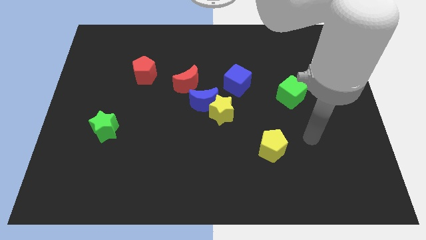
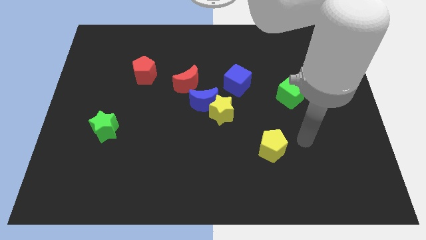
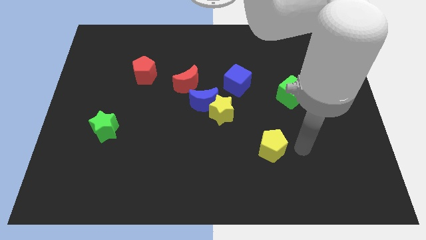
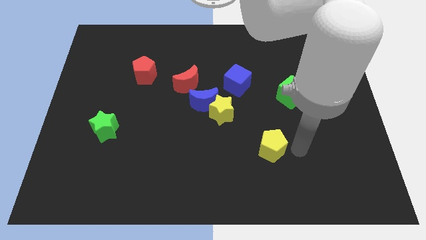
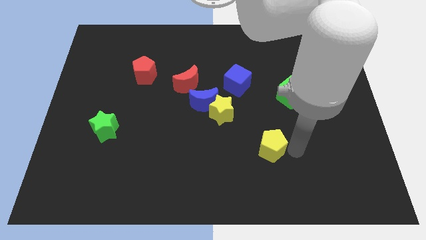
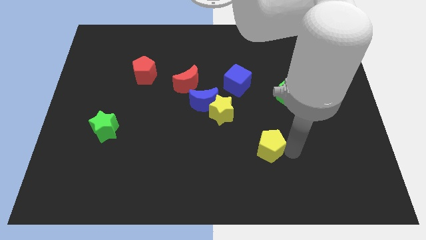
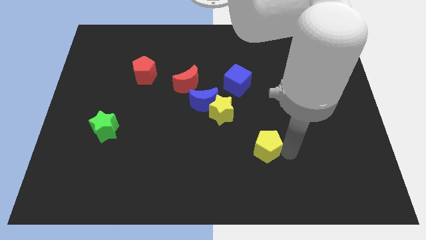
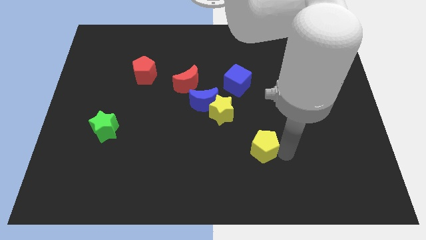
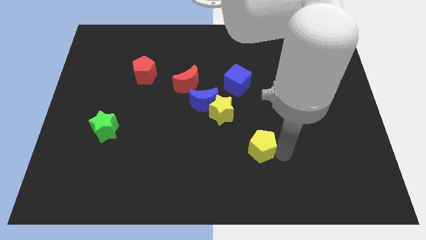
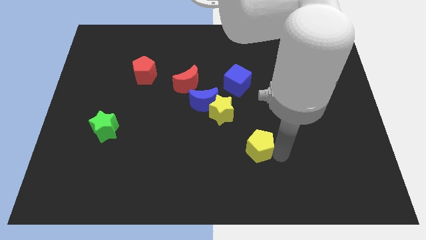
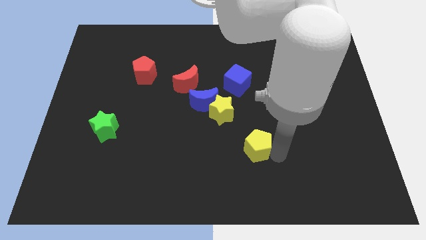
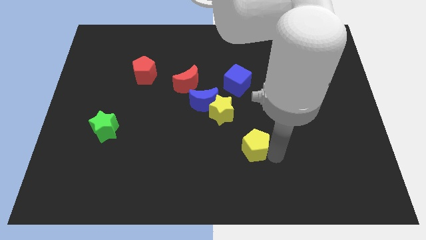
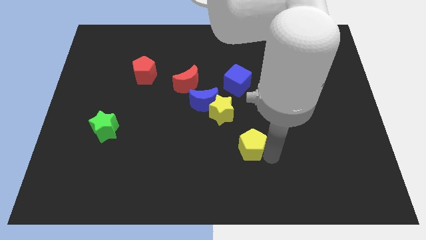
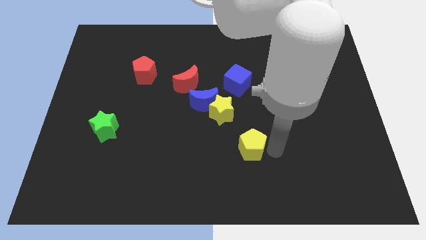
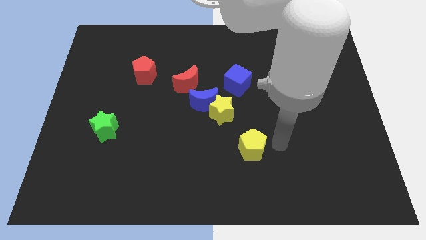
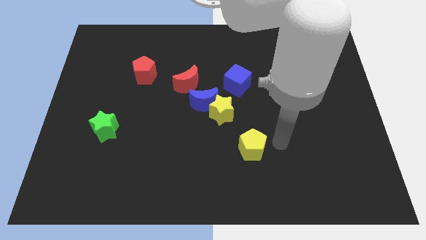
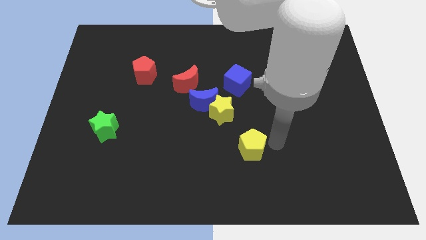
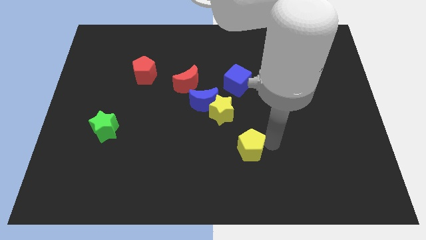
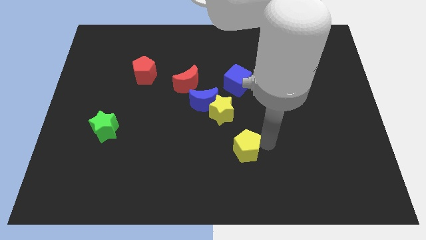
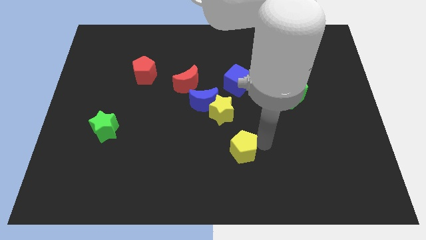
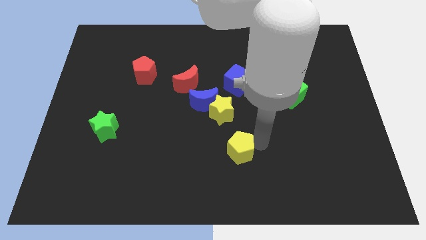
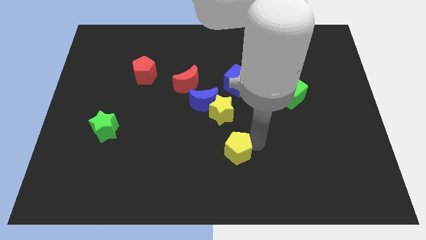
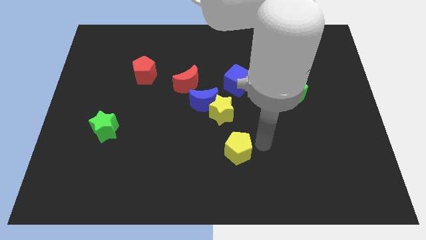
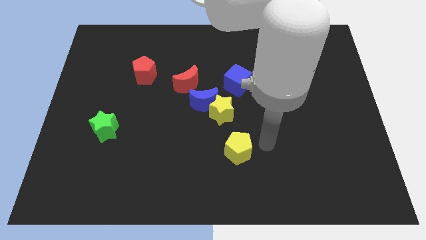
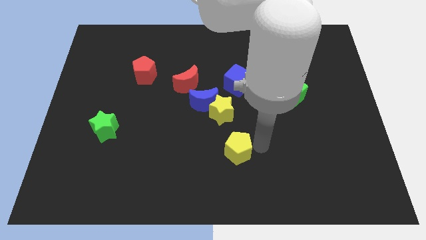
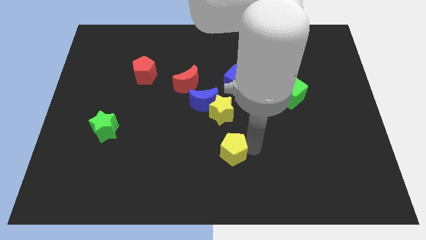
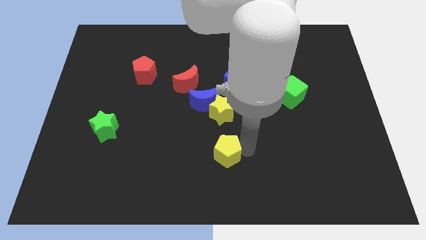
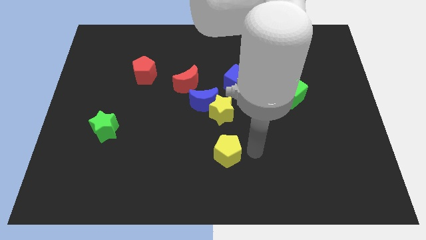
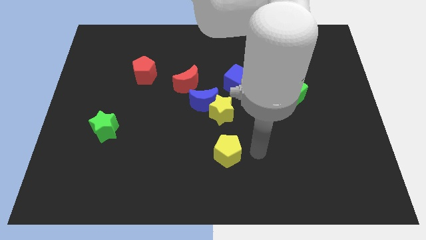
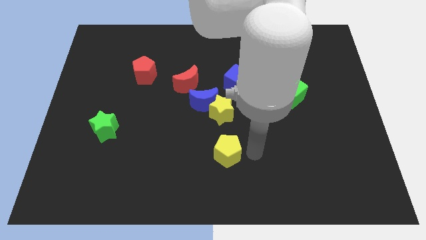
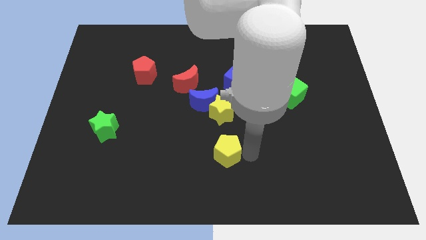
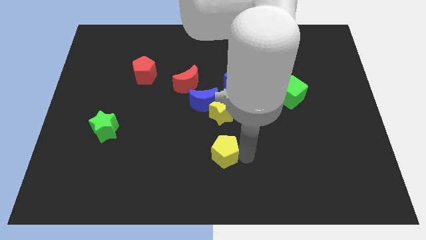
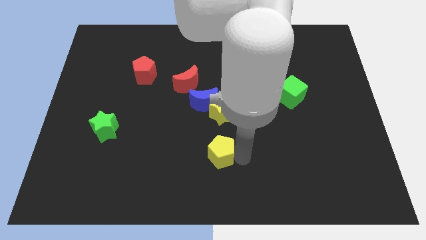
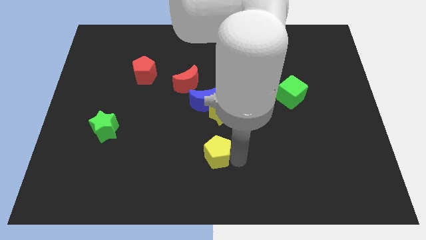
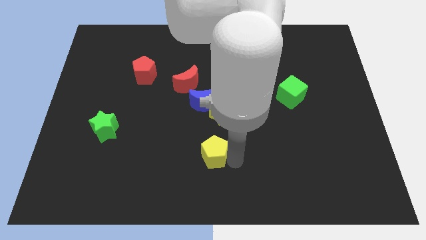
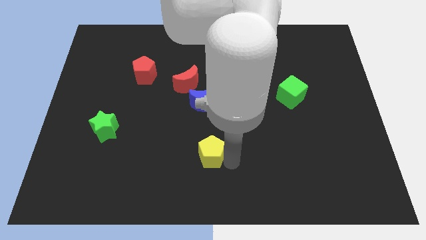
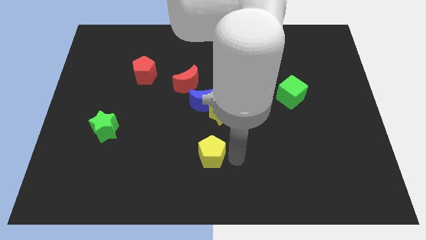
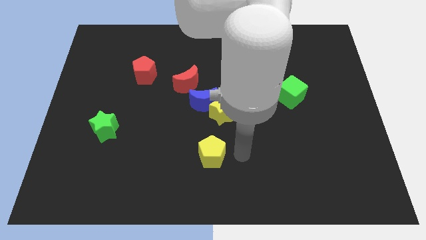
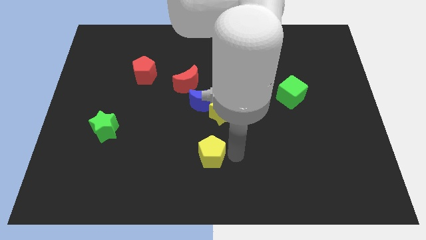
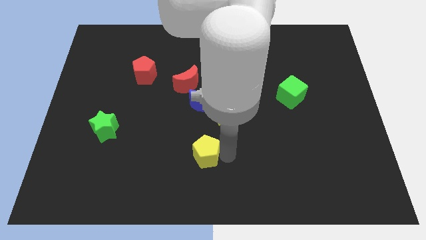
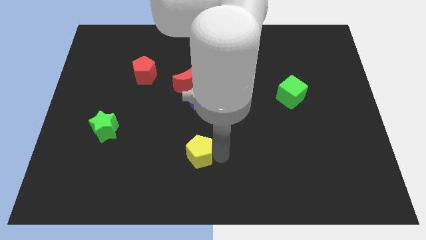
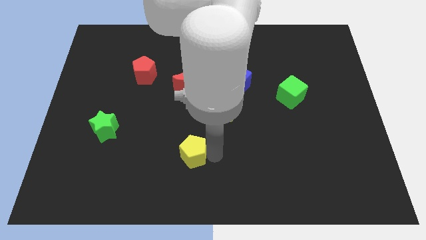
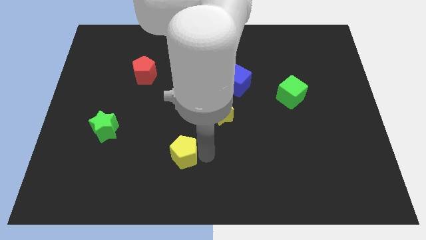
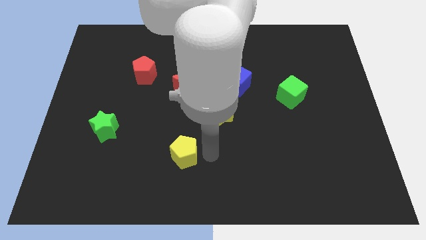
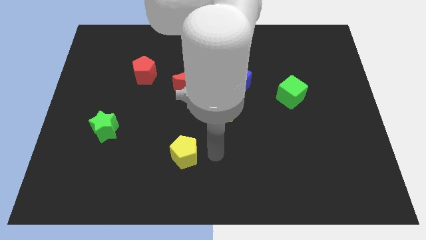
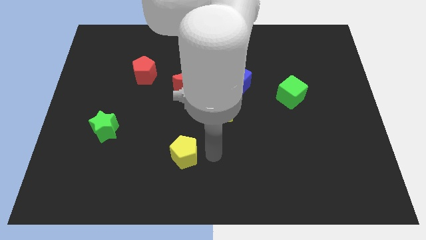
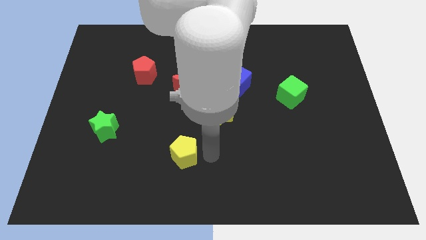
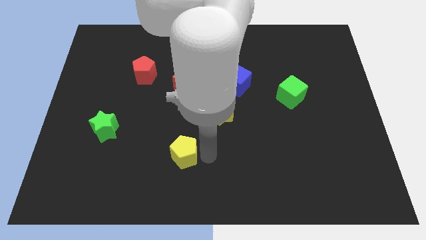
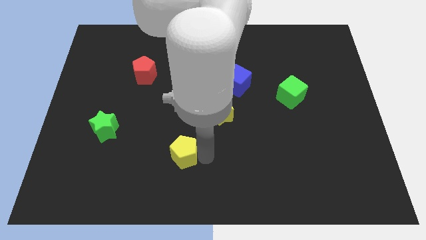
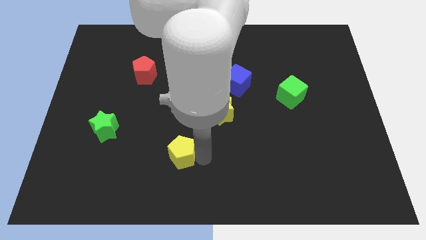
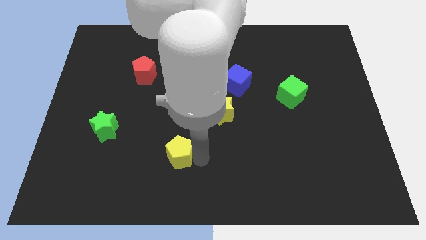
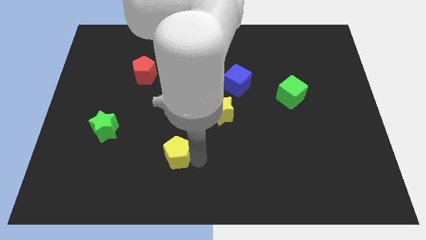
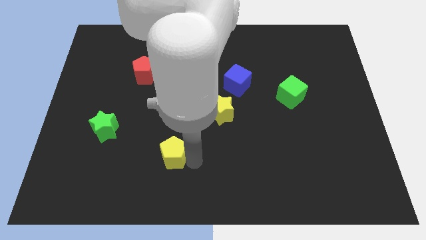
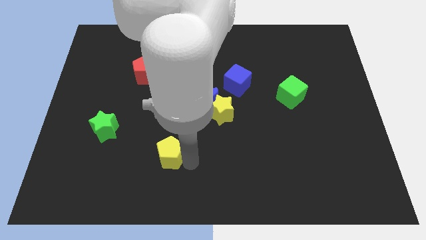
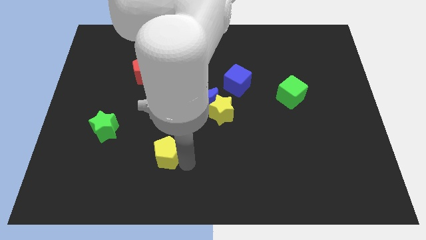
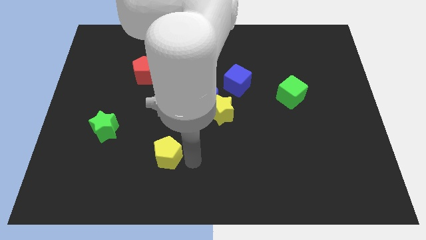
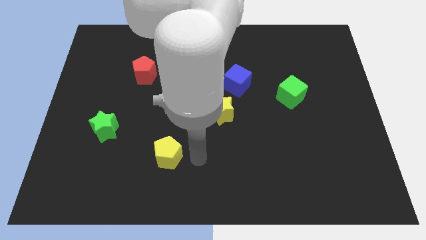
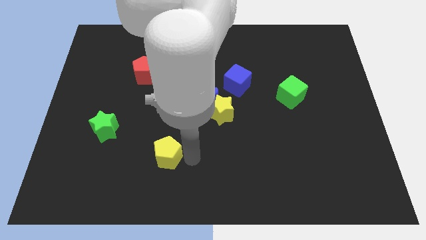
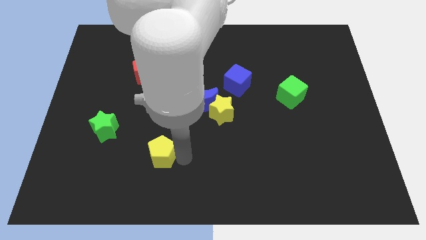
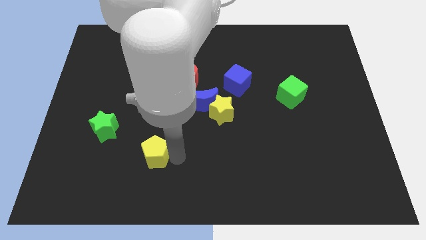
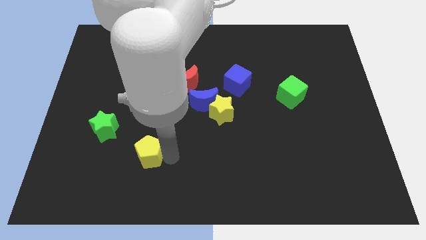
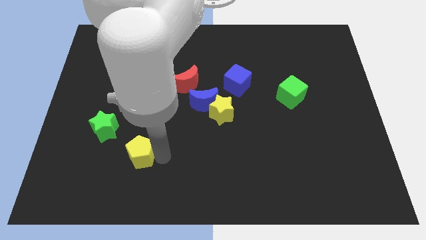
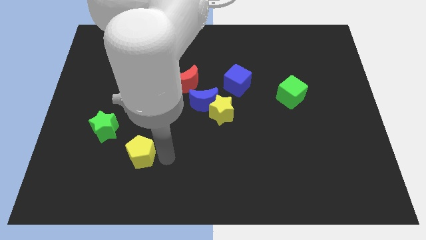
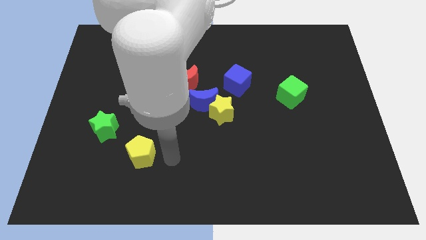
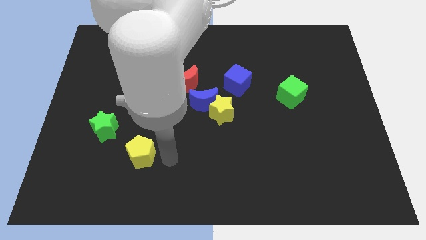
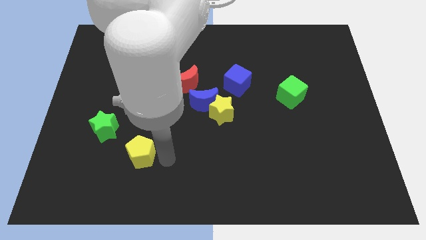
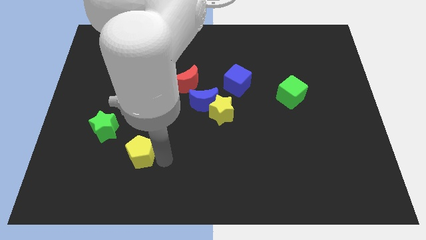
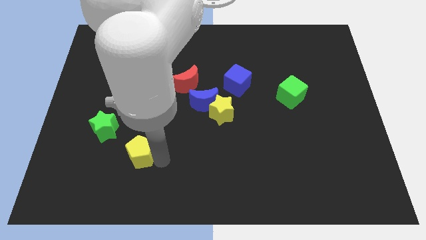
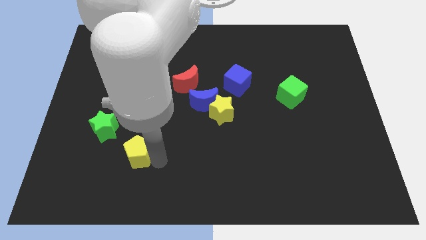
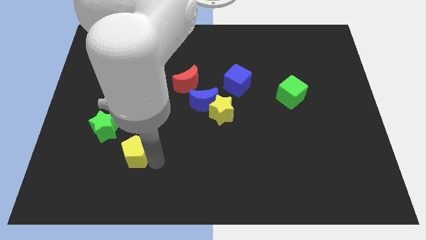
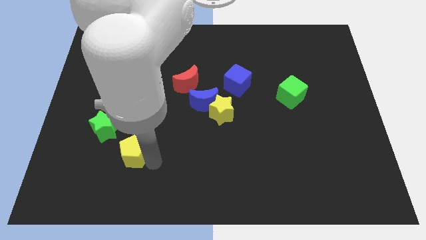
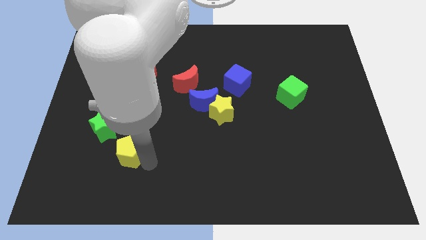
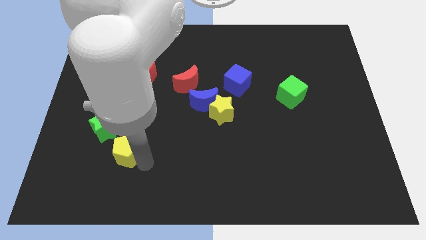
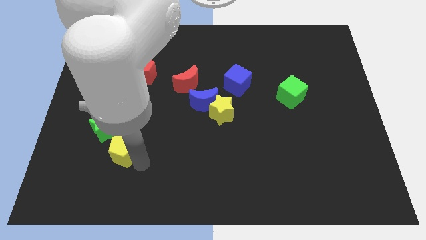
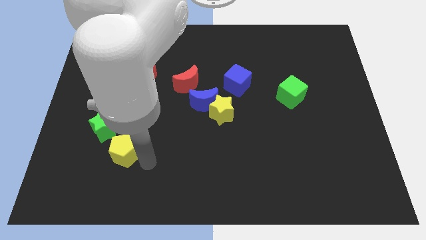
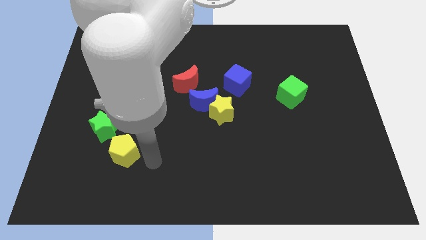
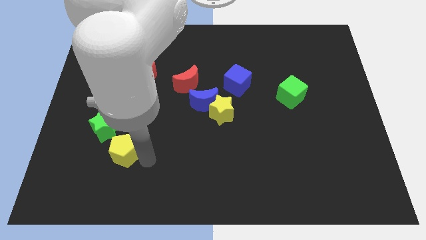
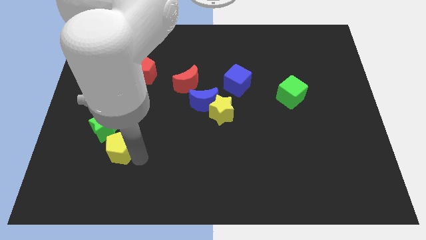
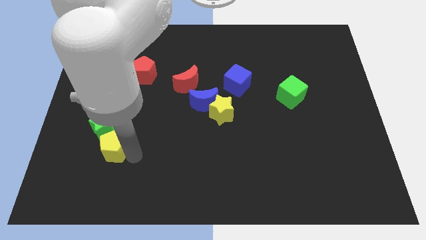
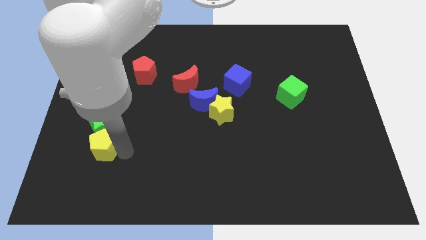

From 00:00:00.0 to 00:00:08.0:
move the yellow pentagon to the bottom left side of the green star
